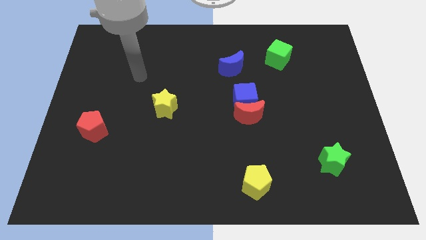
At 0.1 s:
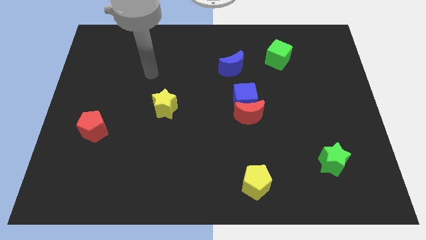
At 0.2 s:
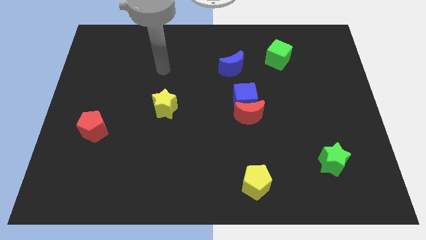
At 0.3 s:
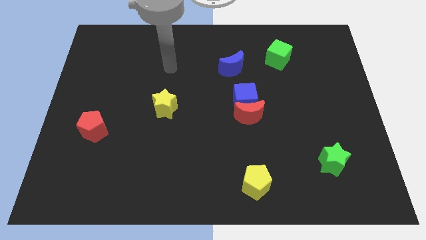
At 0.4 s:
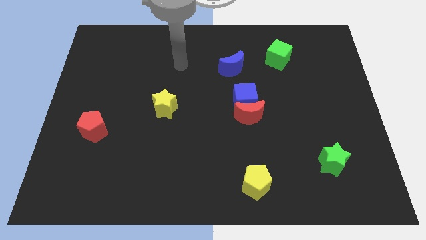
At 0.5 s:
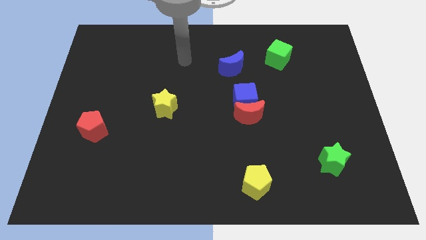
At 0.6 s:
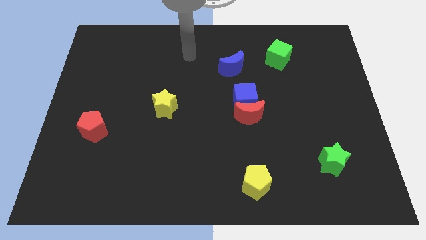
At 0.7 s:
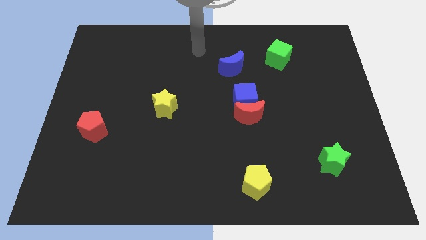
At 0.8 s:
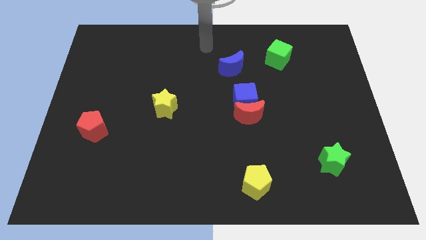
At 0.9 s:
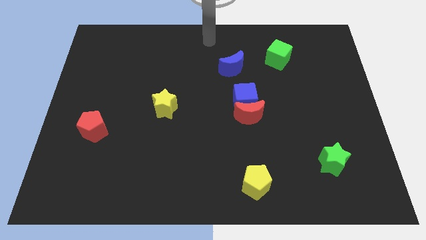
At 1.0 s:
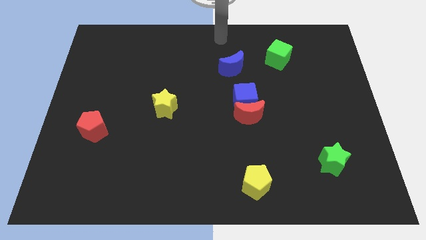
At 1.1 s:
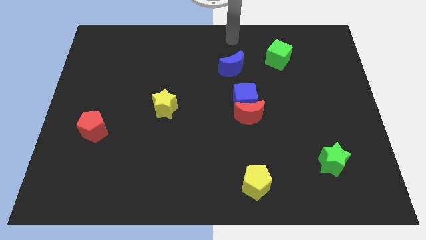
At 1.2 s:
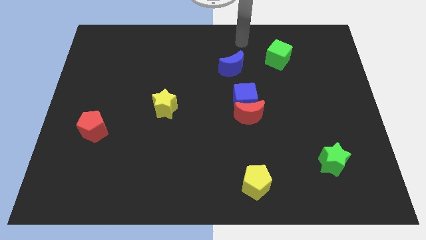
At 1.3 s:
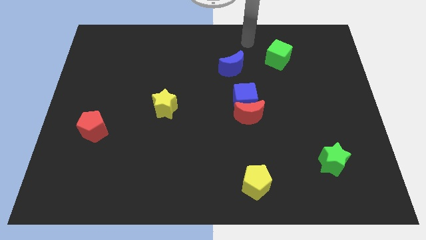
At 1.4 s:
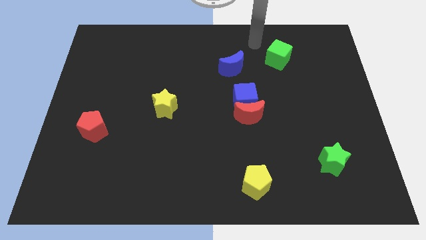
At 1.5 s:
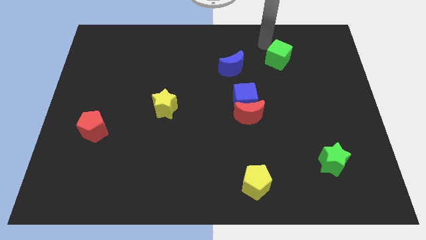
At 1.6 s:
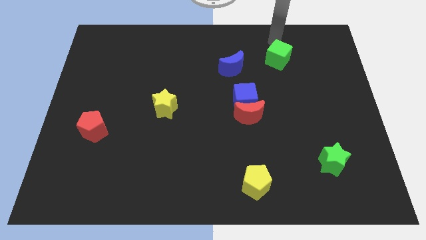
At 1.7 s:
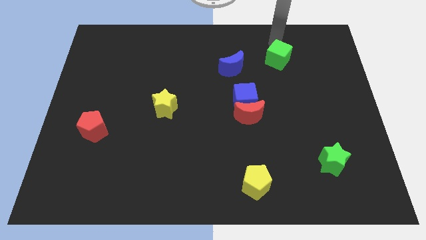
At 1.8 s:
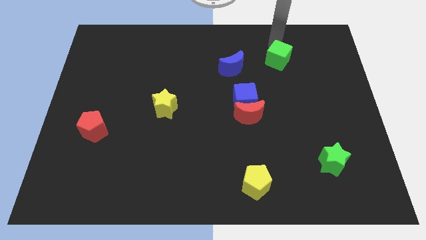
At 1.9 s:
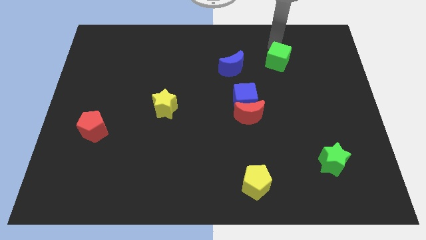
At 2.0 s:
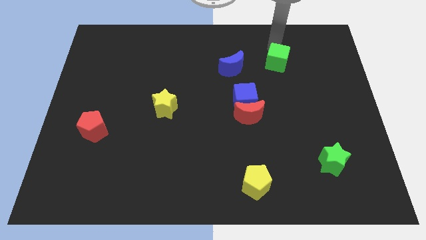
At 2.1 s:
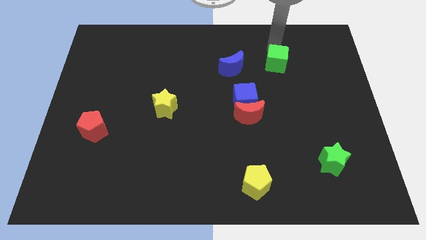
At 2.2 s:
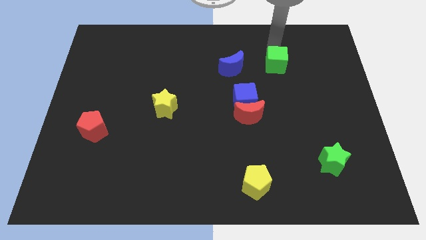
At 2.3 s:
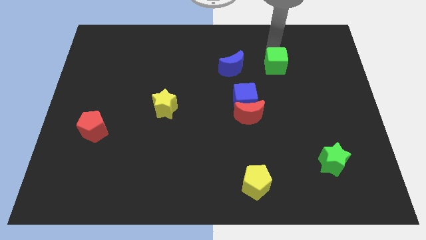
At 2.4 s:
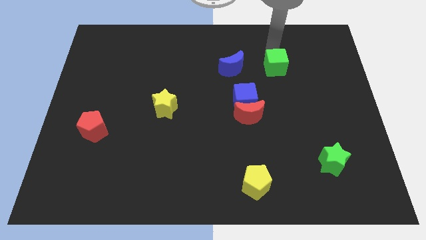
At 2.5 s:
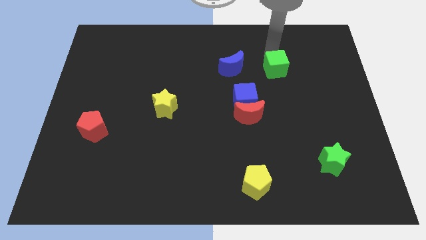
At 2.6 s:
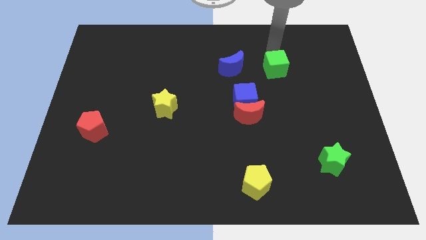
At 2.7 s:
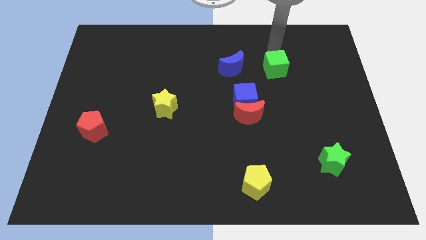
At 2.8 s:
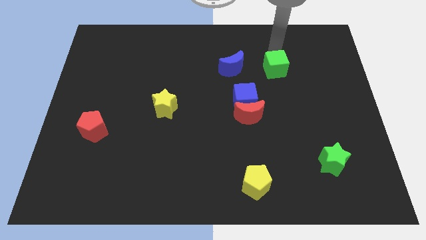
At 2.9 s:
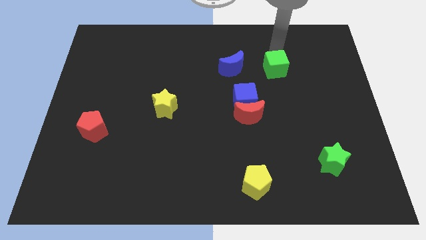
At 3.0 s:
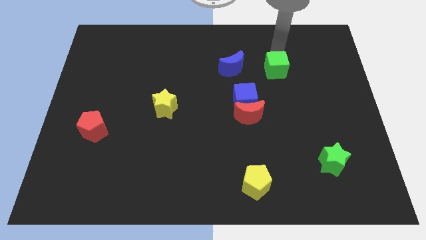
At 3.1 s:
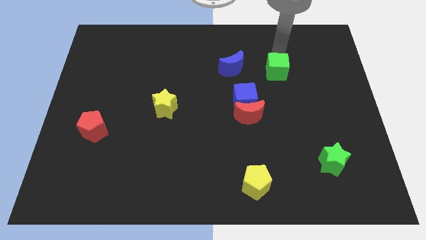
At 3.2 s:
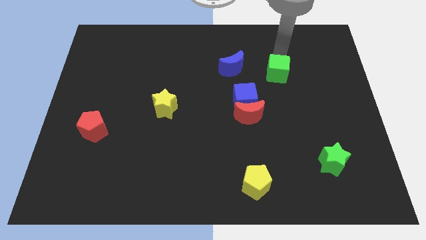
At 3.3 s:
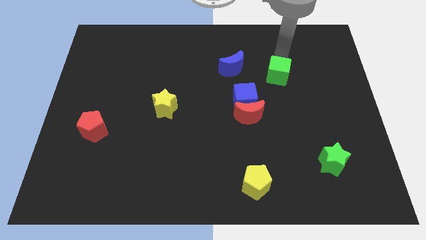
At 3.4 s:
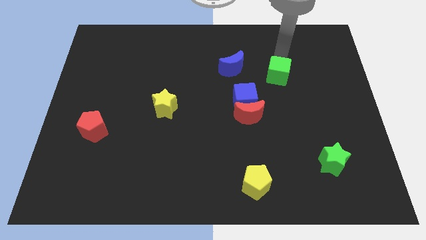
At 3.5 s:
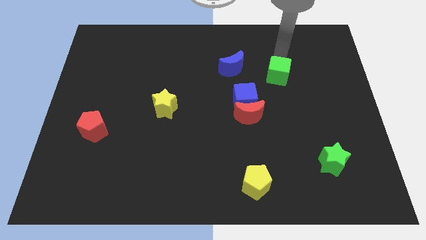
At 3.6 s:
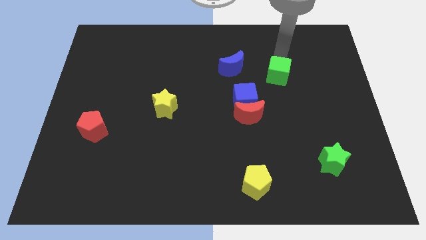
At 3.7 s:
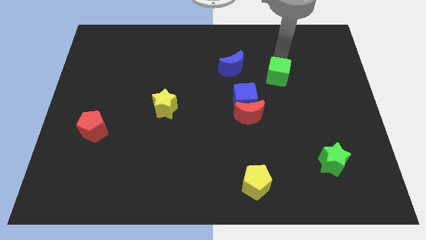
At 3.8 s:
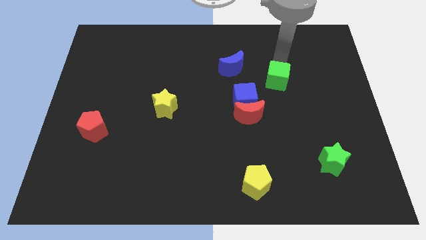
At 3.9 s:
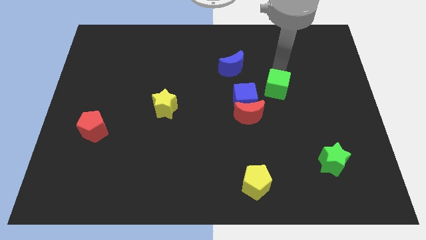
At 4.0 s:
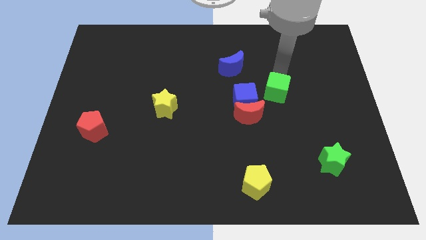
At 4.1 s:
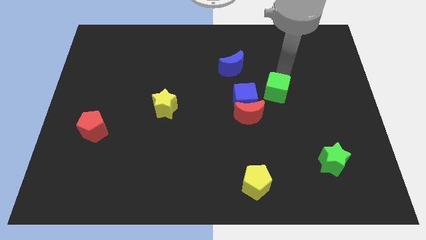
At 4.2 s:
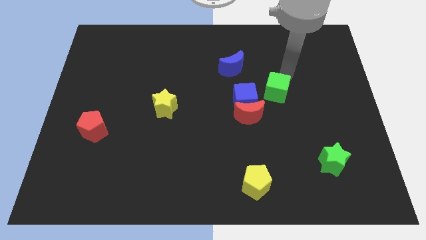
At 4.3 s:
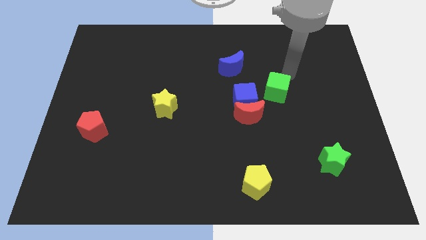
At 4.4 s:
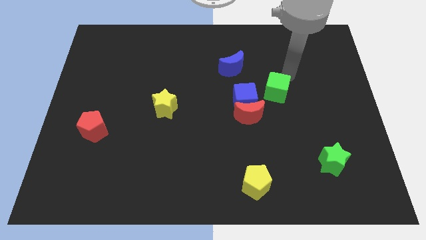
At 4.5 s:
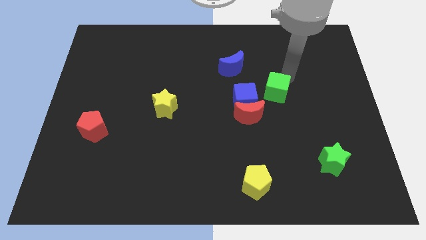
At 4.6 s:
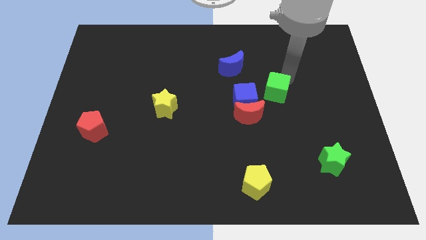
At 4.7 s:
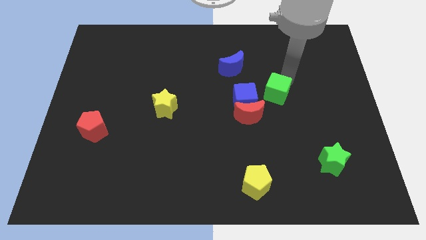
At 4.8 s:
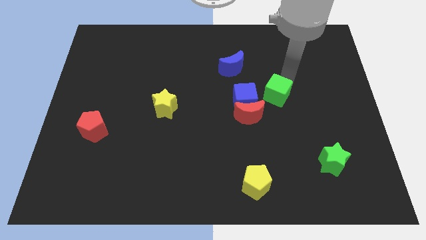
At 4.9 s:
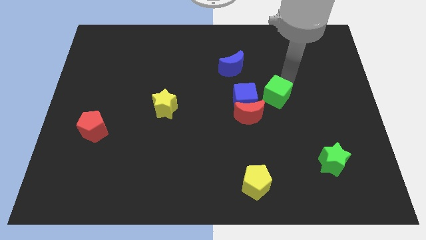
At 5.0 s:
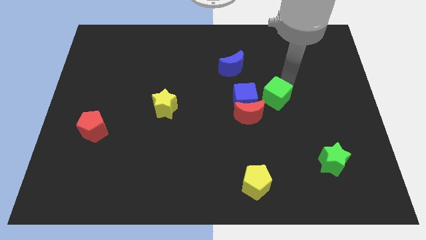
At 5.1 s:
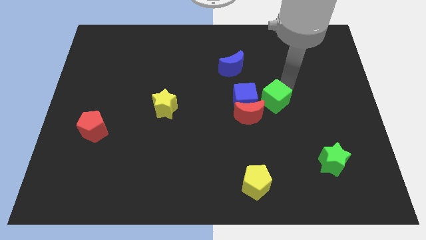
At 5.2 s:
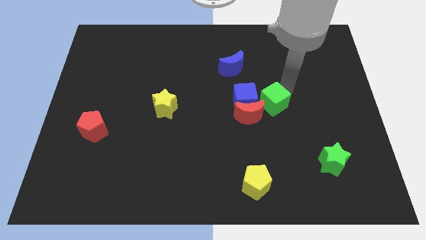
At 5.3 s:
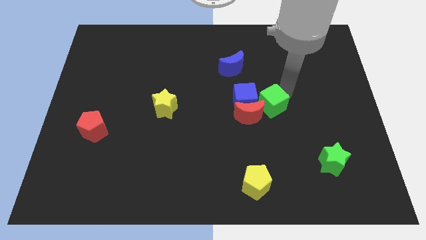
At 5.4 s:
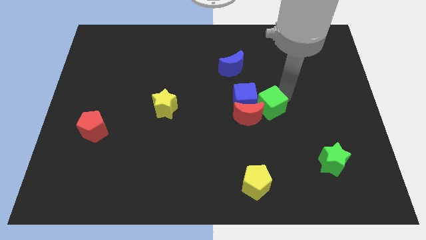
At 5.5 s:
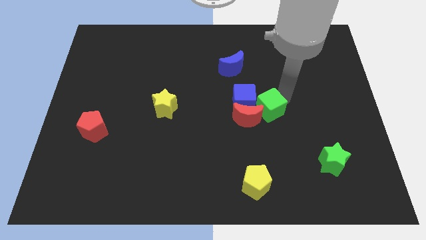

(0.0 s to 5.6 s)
push the green cube to the red moon

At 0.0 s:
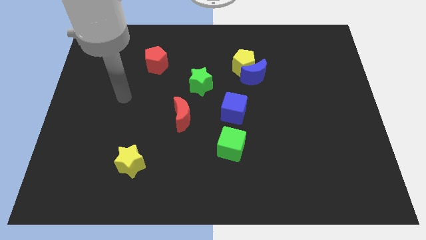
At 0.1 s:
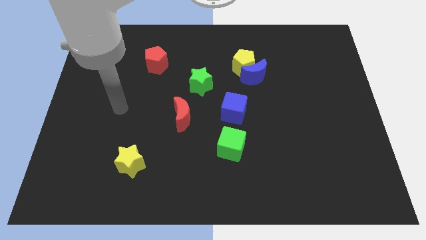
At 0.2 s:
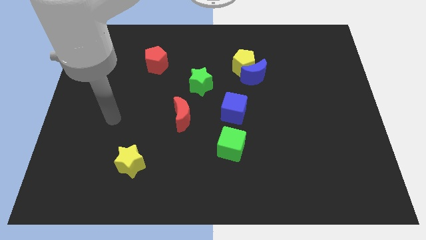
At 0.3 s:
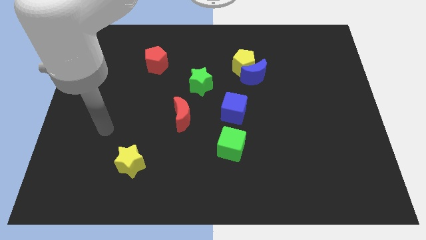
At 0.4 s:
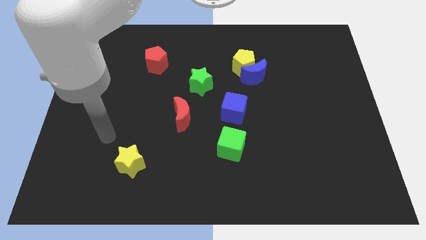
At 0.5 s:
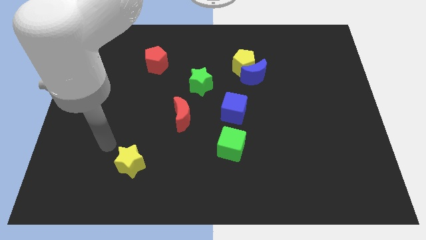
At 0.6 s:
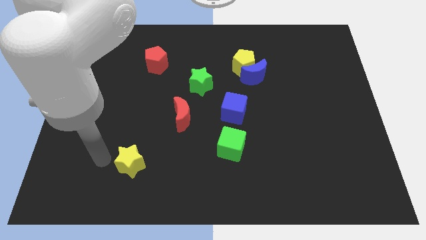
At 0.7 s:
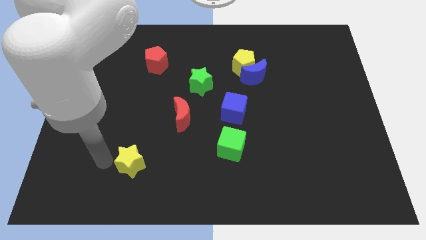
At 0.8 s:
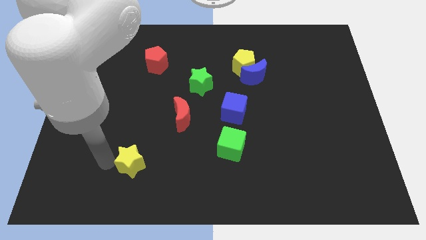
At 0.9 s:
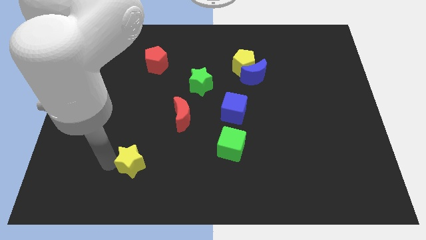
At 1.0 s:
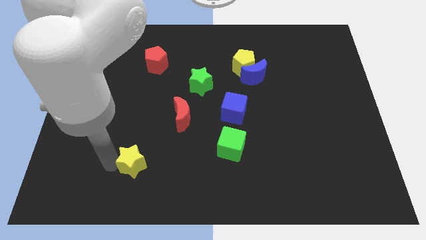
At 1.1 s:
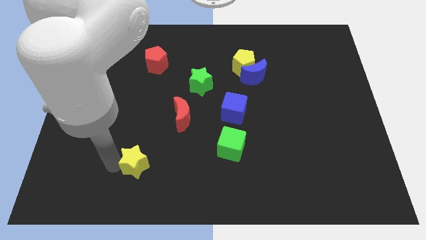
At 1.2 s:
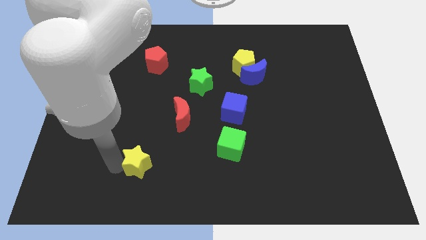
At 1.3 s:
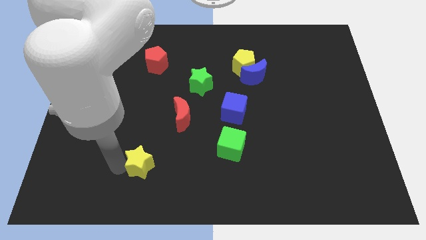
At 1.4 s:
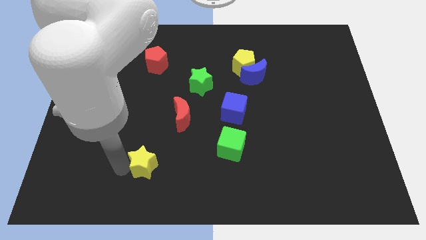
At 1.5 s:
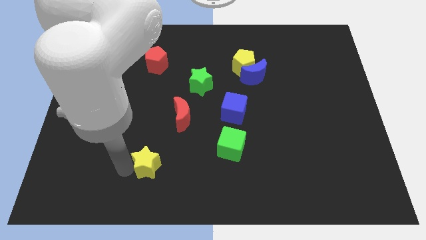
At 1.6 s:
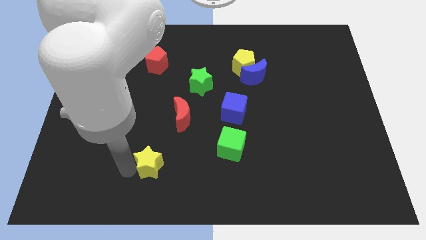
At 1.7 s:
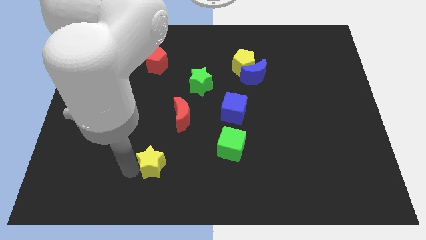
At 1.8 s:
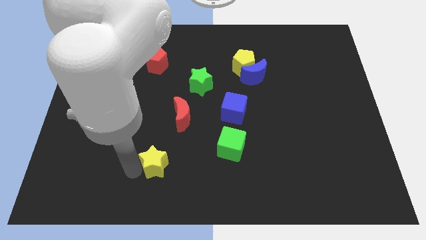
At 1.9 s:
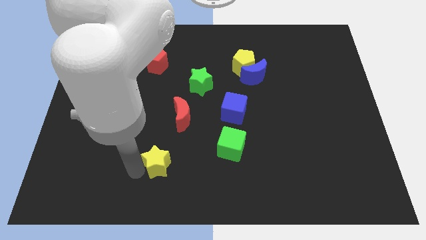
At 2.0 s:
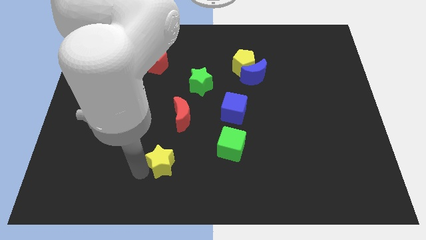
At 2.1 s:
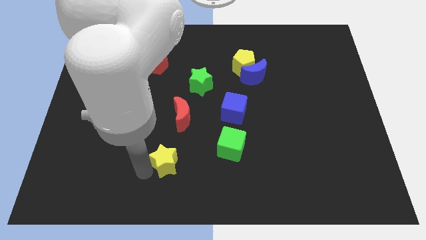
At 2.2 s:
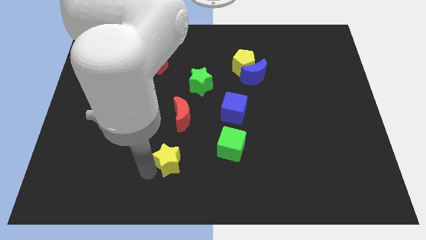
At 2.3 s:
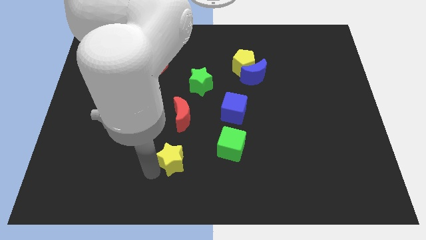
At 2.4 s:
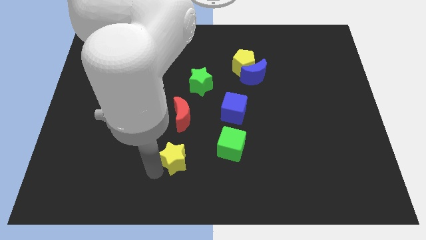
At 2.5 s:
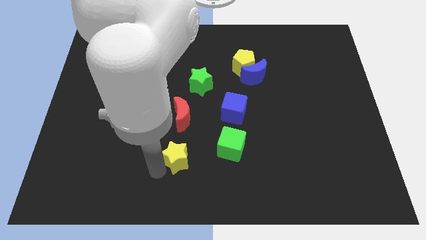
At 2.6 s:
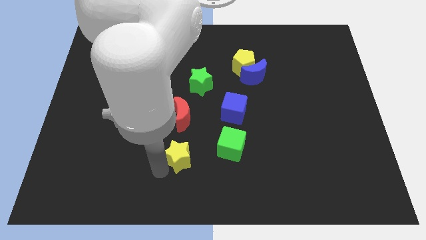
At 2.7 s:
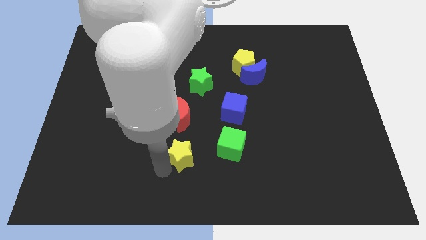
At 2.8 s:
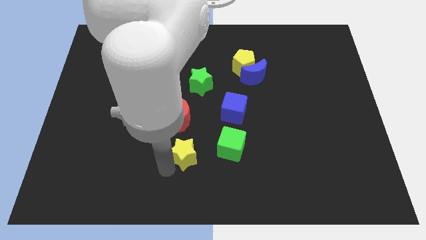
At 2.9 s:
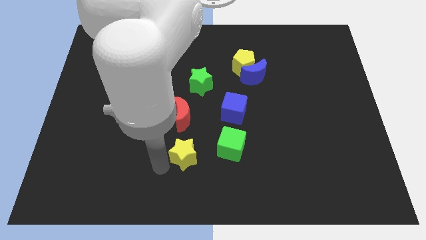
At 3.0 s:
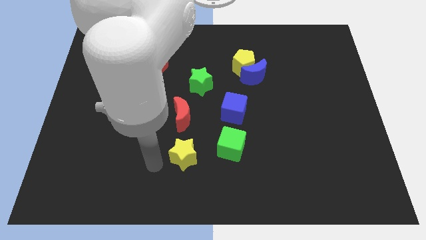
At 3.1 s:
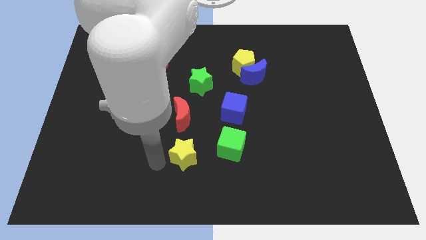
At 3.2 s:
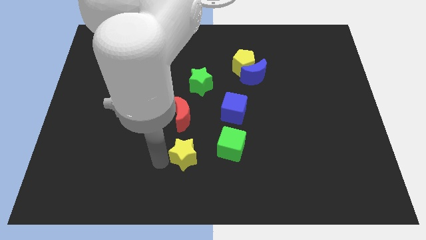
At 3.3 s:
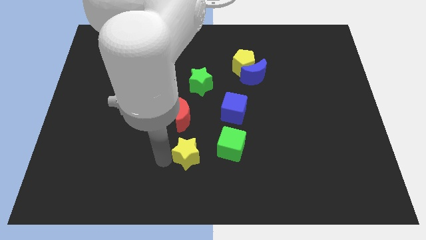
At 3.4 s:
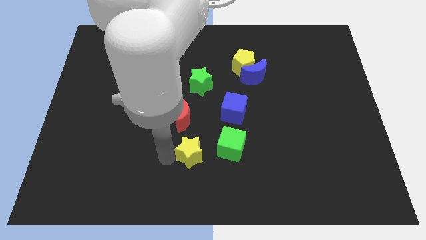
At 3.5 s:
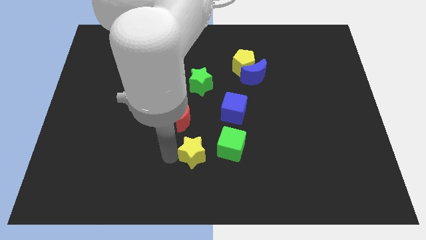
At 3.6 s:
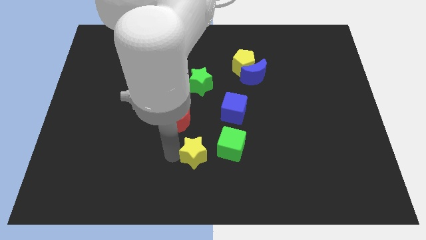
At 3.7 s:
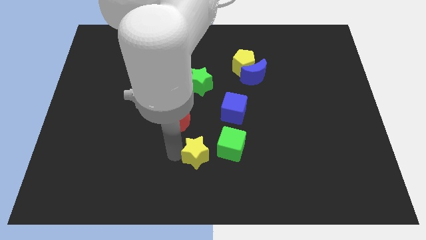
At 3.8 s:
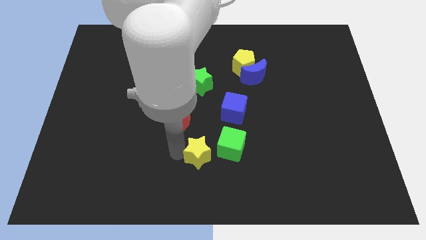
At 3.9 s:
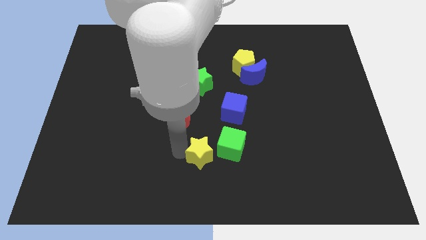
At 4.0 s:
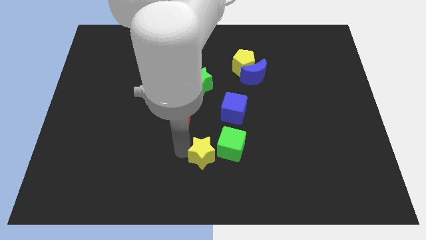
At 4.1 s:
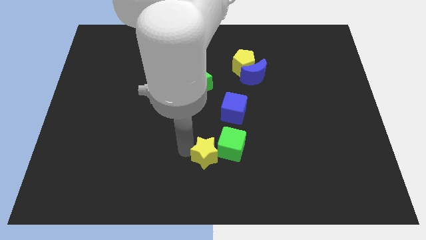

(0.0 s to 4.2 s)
move the yellow star towards the green cube
